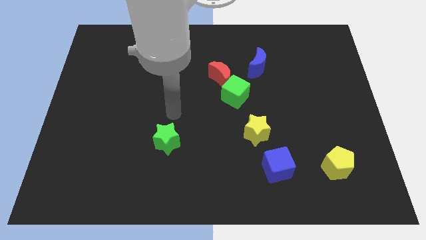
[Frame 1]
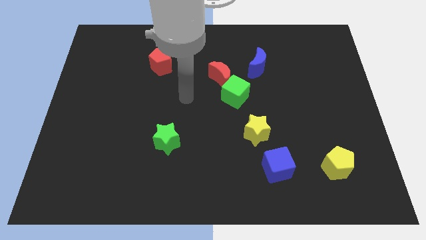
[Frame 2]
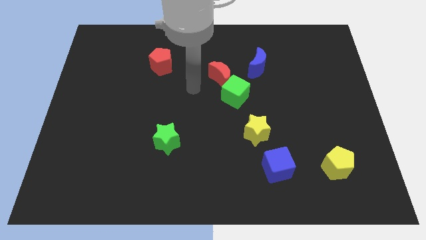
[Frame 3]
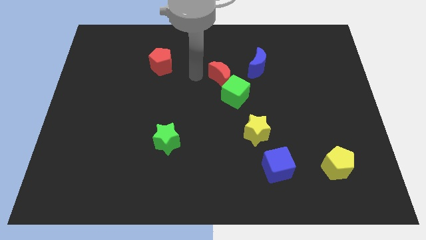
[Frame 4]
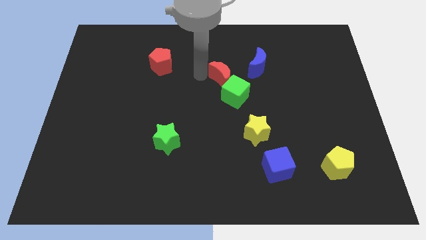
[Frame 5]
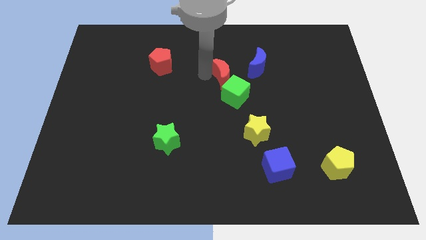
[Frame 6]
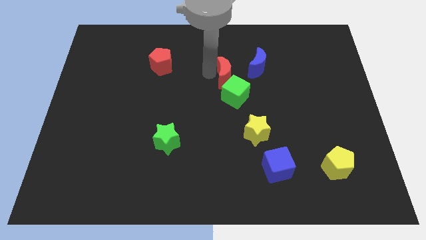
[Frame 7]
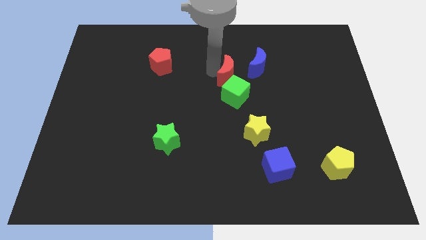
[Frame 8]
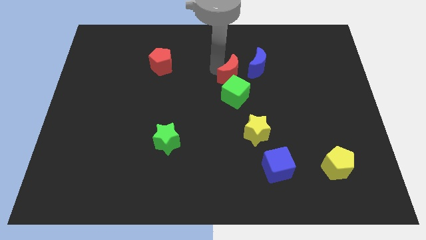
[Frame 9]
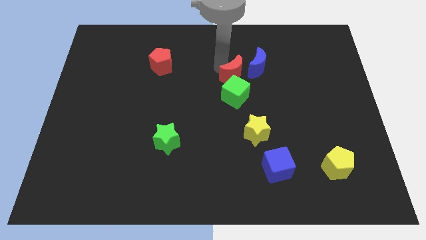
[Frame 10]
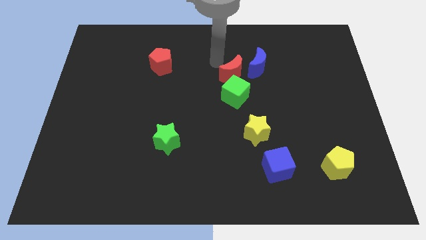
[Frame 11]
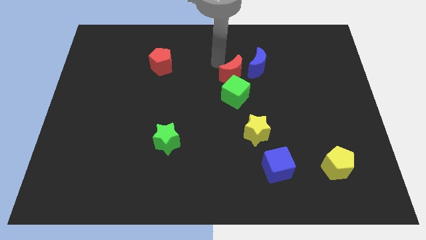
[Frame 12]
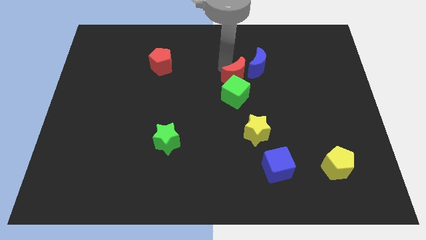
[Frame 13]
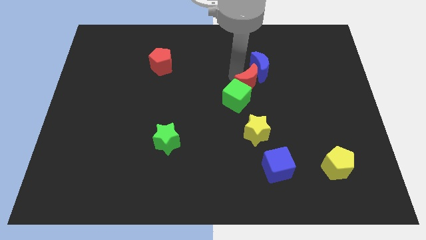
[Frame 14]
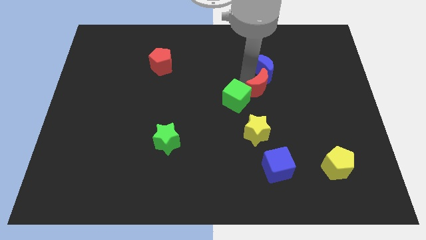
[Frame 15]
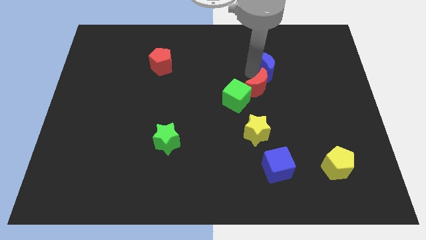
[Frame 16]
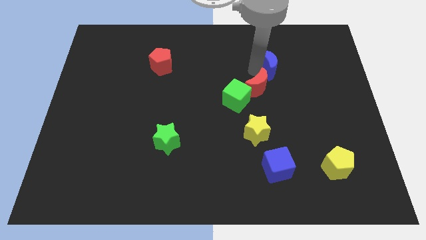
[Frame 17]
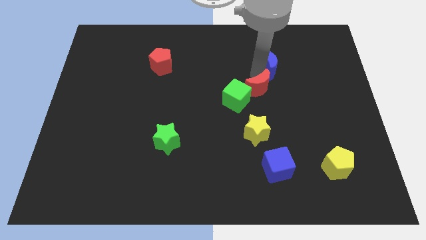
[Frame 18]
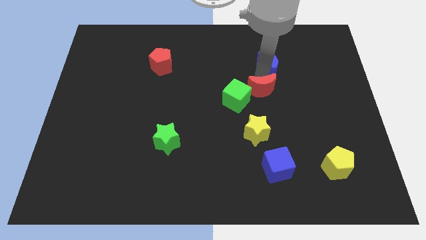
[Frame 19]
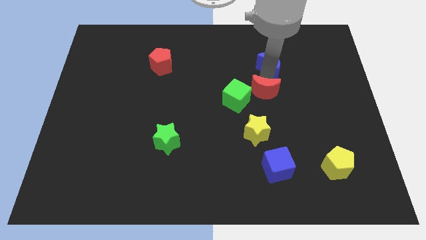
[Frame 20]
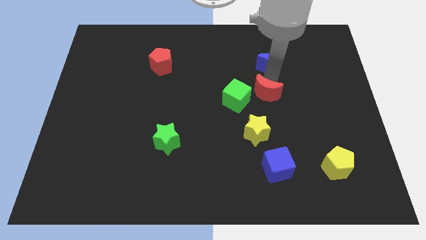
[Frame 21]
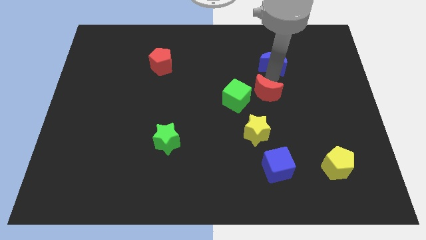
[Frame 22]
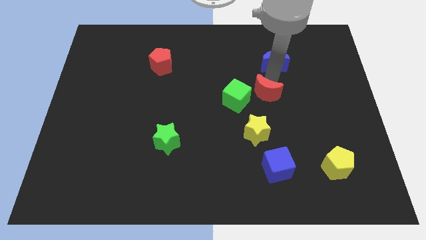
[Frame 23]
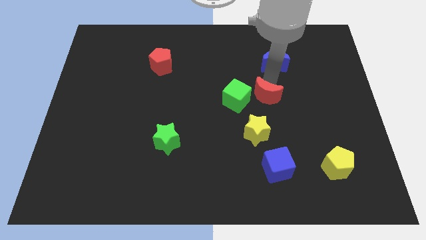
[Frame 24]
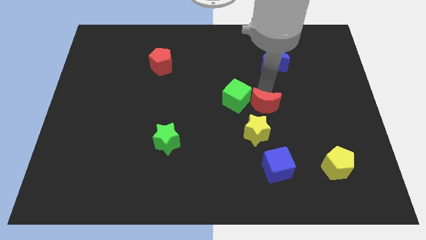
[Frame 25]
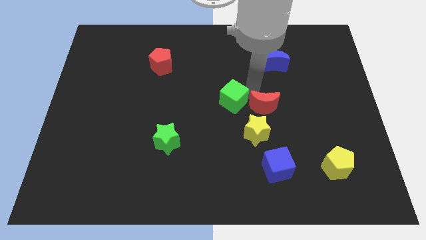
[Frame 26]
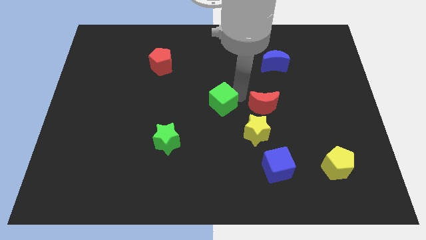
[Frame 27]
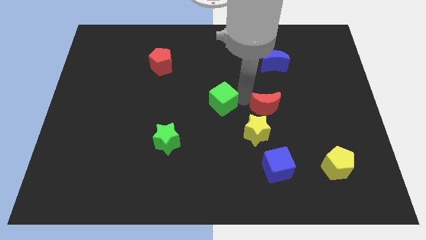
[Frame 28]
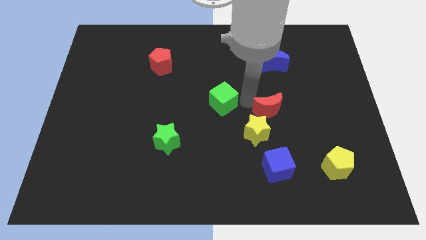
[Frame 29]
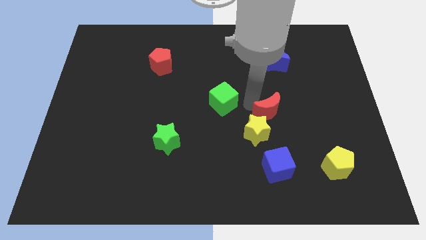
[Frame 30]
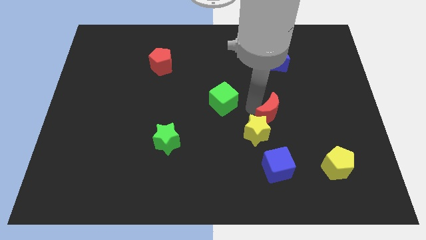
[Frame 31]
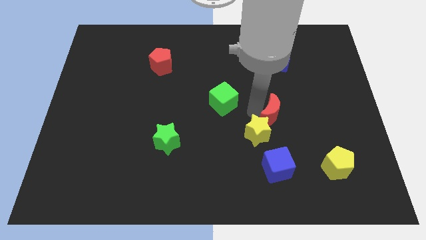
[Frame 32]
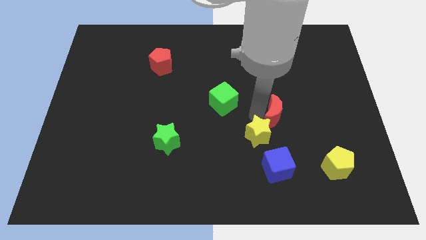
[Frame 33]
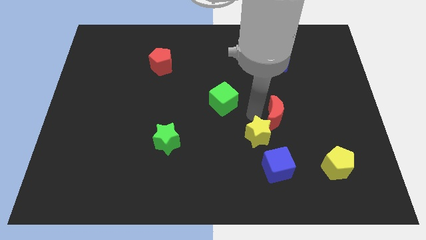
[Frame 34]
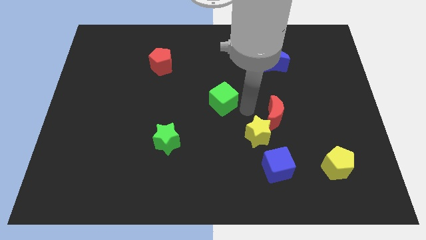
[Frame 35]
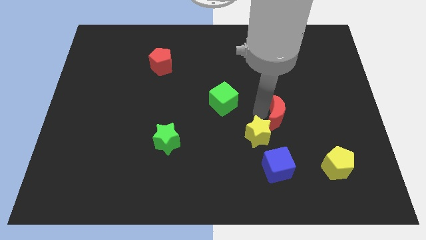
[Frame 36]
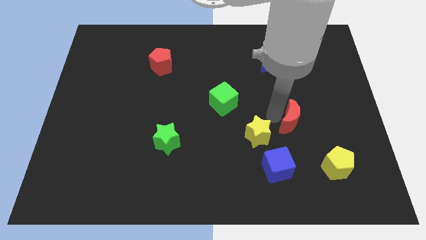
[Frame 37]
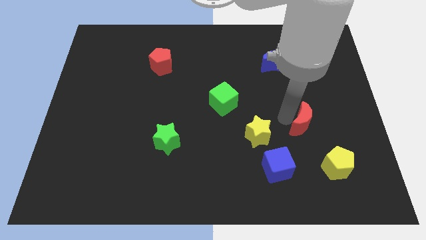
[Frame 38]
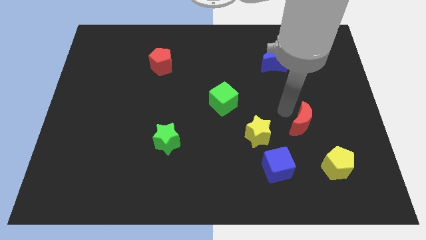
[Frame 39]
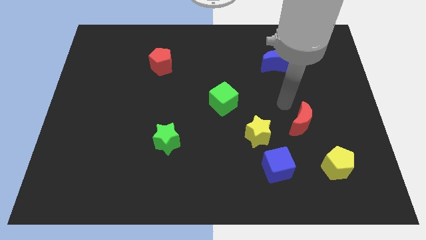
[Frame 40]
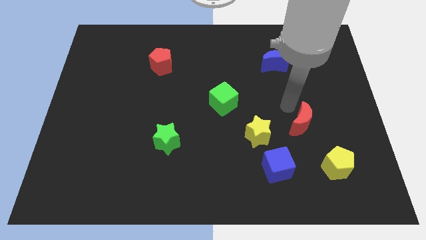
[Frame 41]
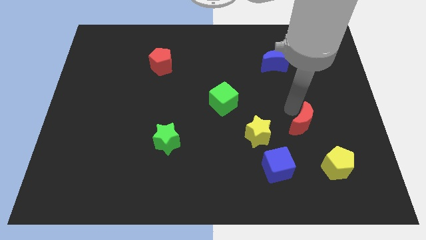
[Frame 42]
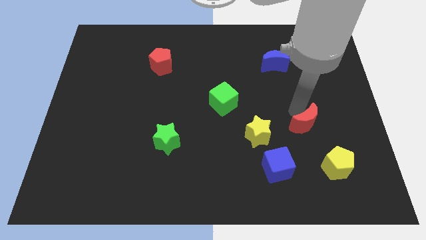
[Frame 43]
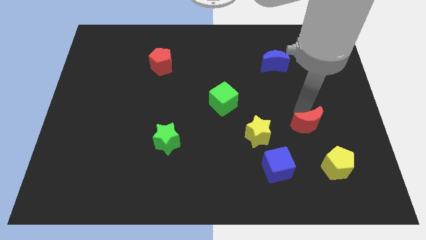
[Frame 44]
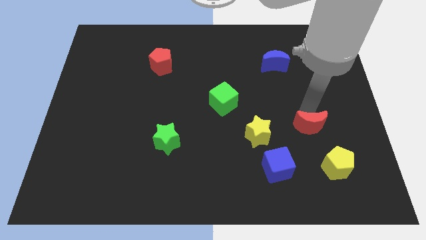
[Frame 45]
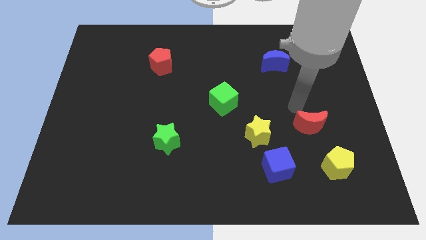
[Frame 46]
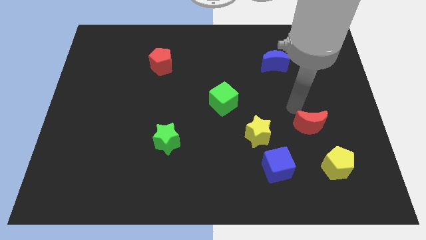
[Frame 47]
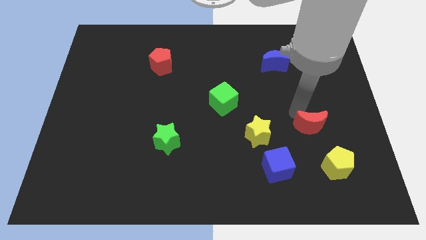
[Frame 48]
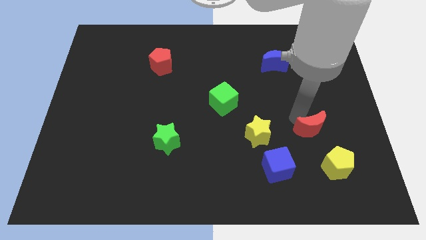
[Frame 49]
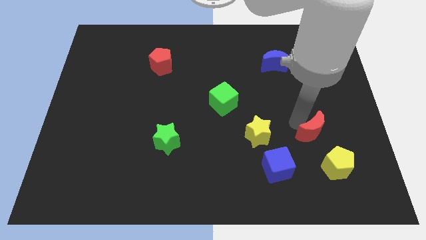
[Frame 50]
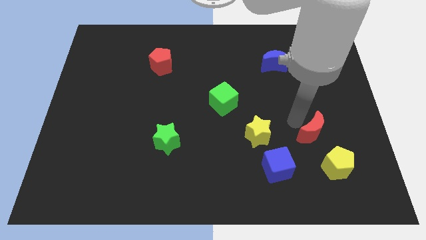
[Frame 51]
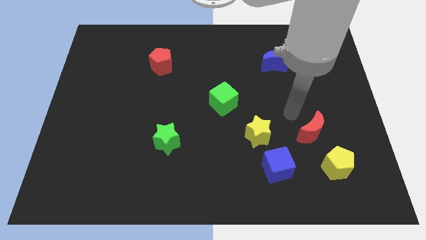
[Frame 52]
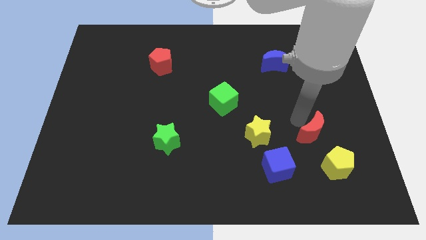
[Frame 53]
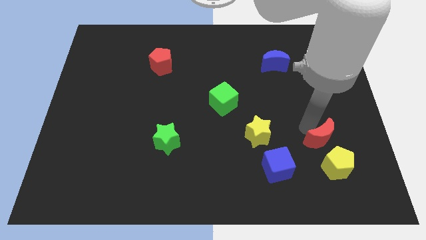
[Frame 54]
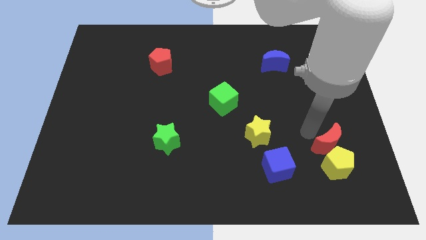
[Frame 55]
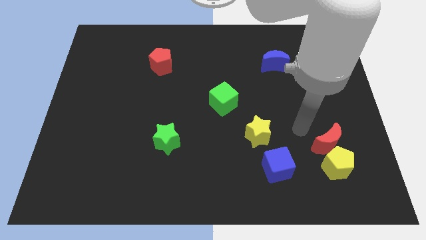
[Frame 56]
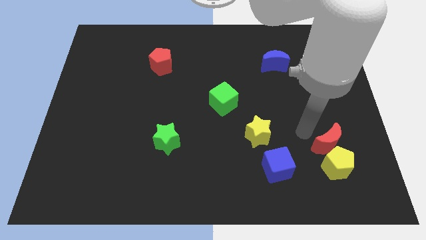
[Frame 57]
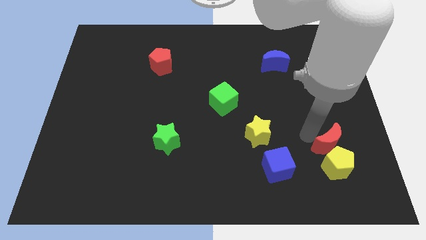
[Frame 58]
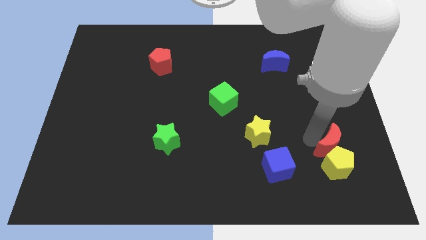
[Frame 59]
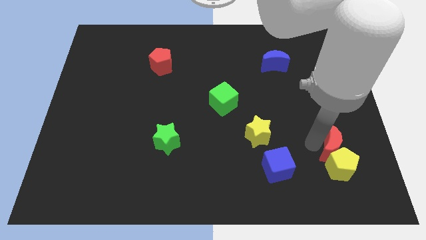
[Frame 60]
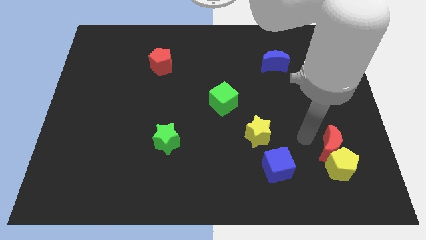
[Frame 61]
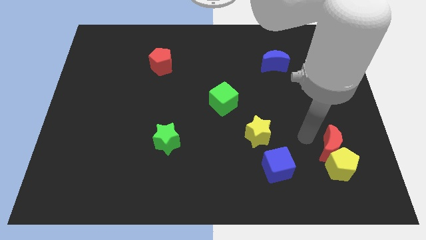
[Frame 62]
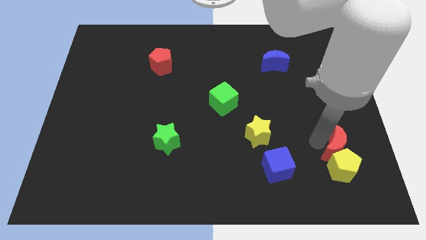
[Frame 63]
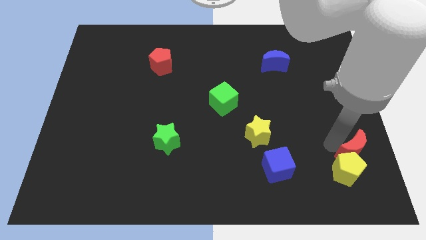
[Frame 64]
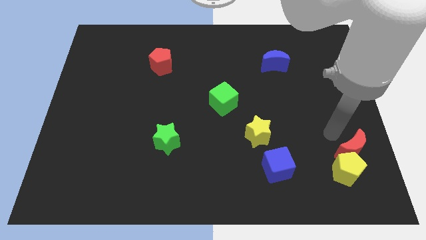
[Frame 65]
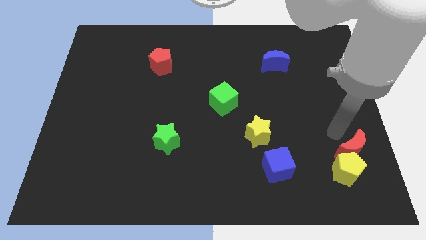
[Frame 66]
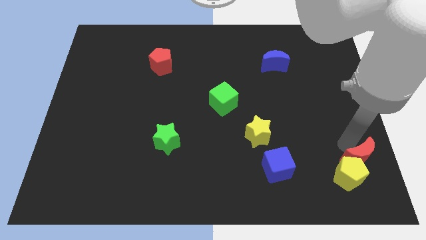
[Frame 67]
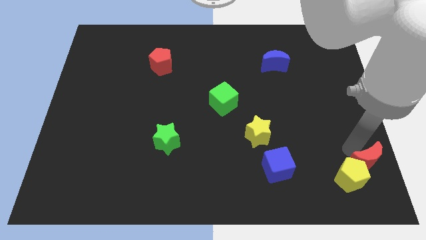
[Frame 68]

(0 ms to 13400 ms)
move the red moon to the bottom right corner
